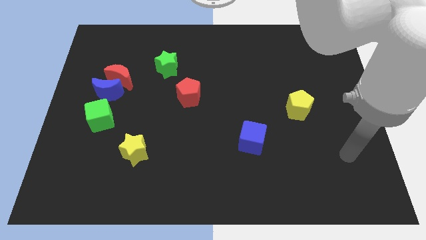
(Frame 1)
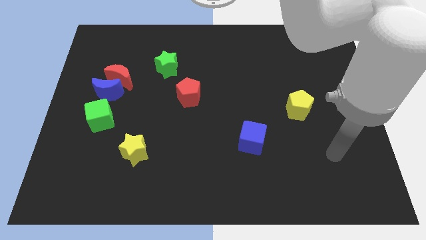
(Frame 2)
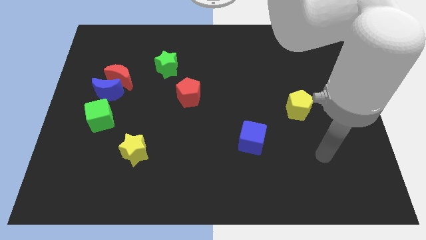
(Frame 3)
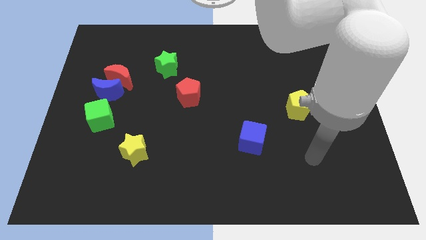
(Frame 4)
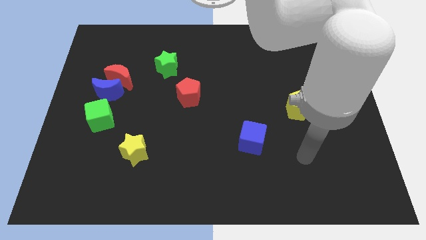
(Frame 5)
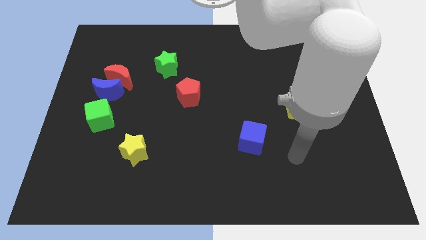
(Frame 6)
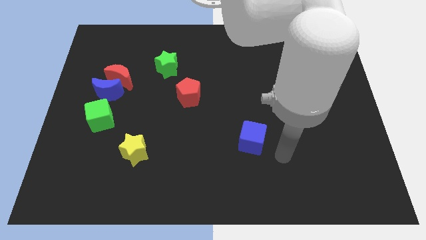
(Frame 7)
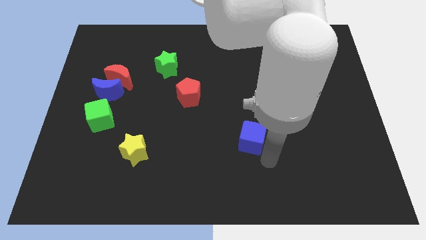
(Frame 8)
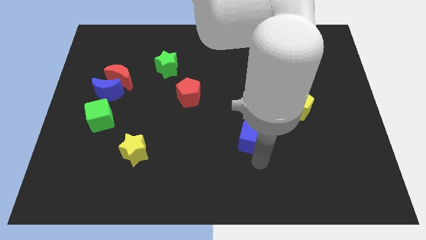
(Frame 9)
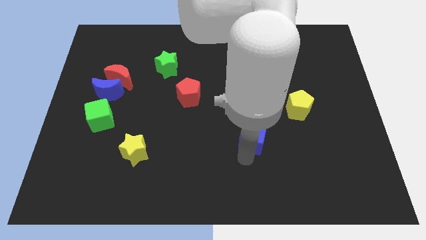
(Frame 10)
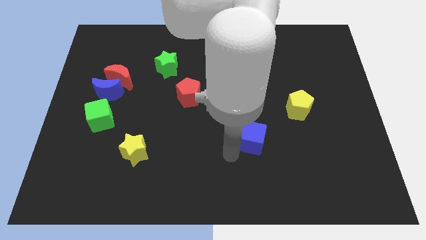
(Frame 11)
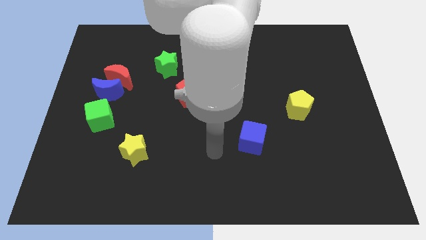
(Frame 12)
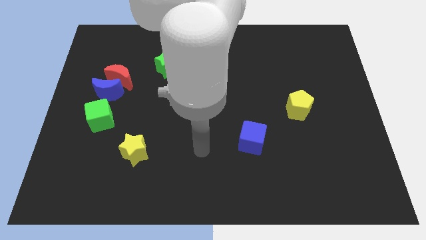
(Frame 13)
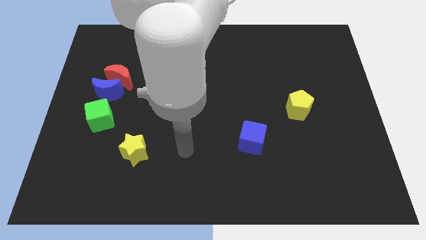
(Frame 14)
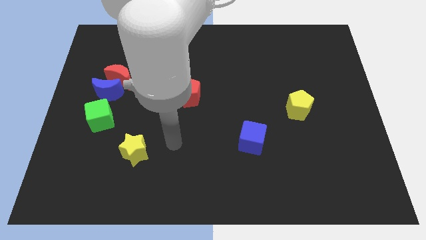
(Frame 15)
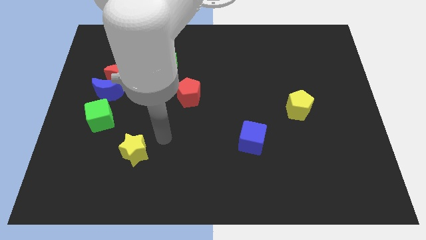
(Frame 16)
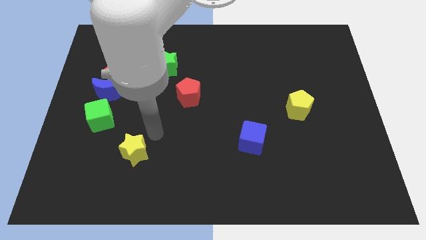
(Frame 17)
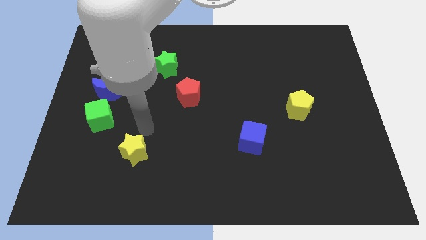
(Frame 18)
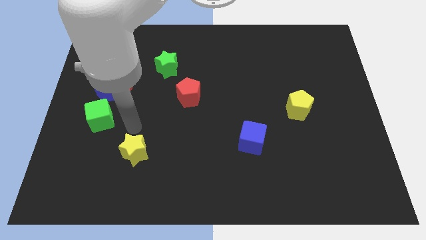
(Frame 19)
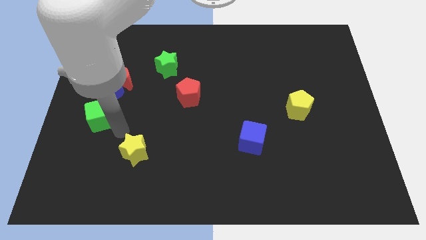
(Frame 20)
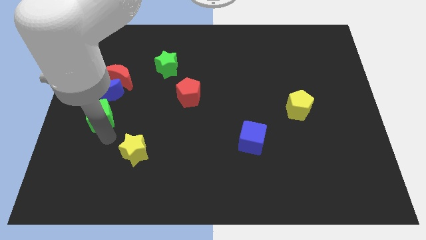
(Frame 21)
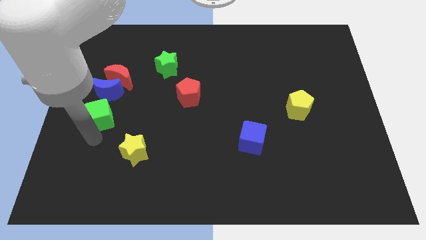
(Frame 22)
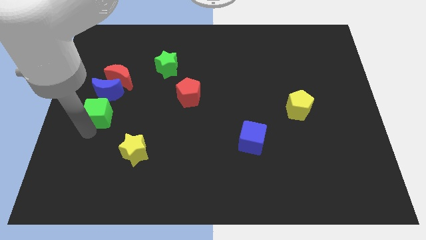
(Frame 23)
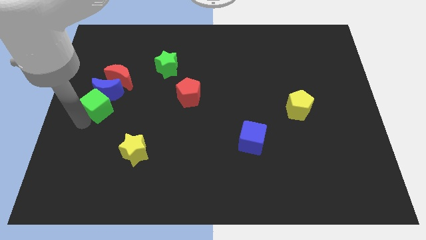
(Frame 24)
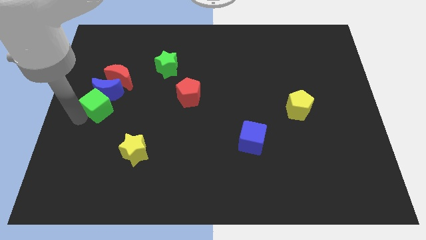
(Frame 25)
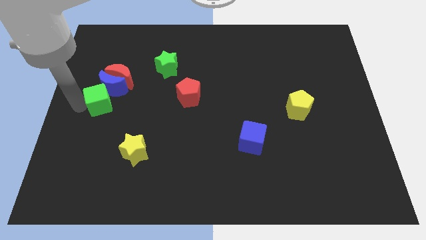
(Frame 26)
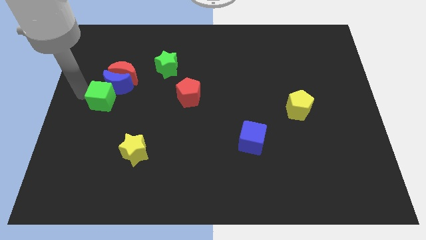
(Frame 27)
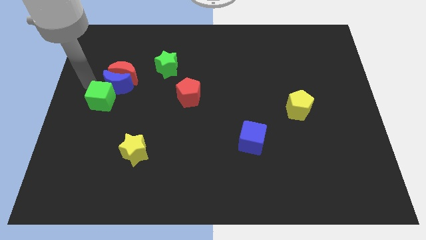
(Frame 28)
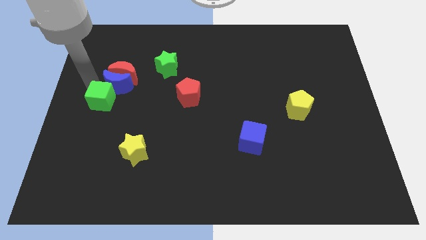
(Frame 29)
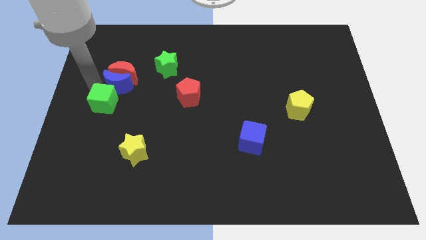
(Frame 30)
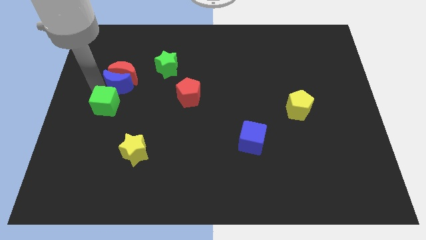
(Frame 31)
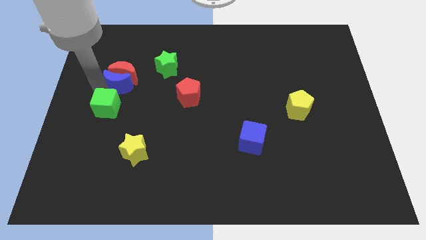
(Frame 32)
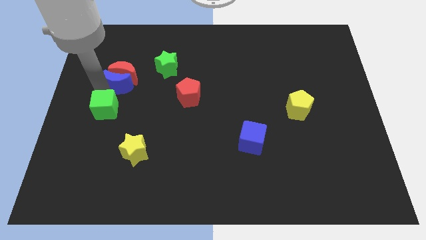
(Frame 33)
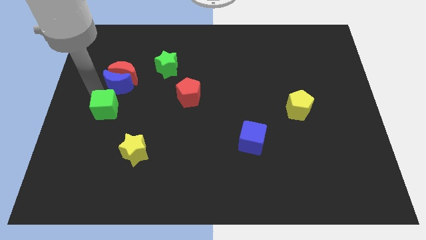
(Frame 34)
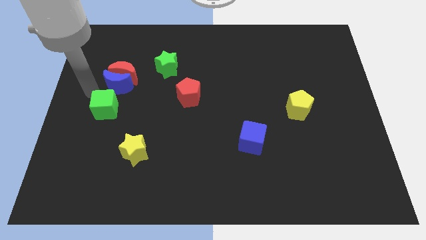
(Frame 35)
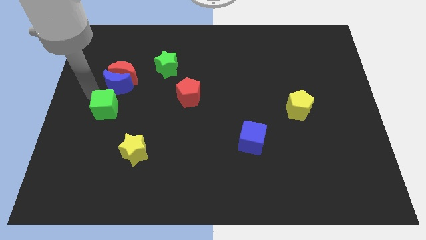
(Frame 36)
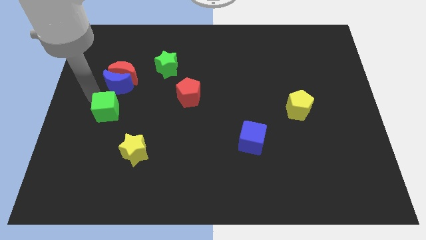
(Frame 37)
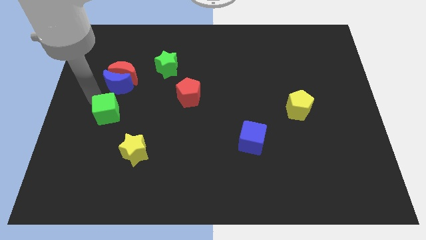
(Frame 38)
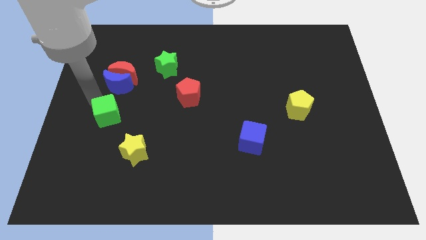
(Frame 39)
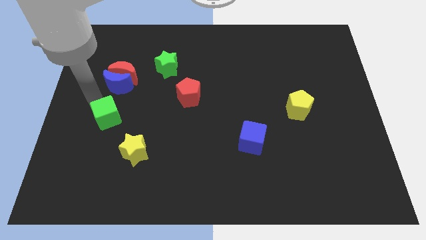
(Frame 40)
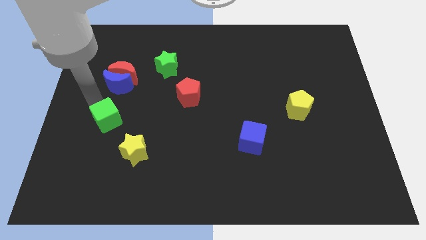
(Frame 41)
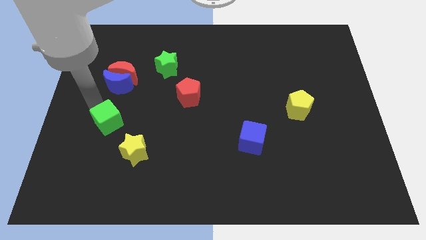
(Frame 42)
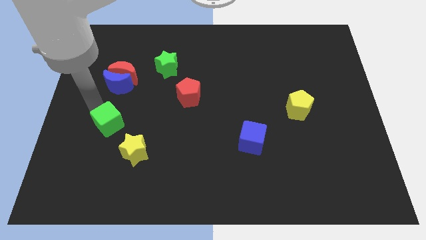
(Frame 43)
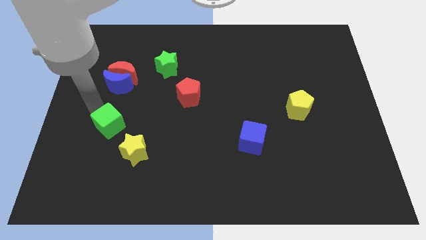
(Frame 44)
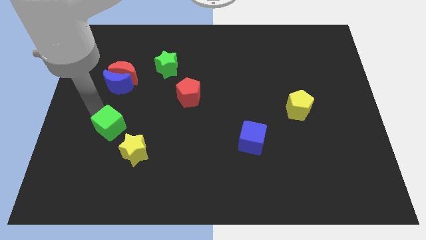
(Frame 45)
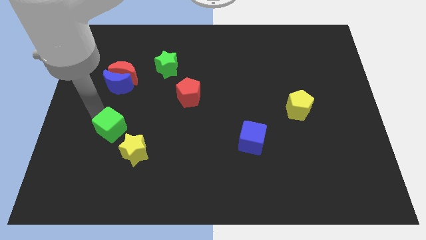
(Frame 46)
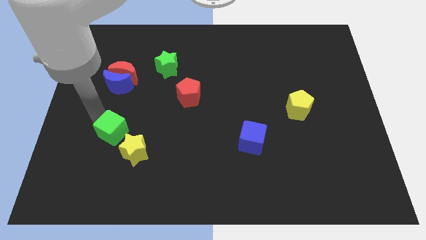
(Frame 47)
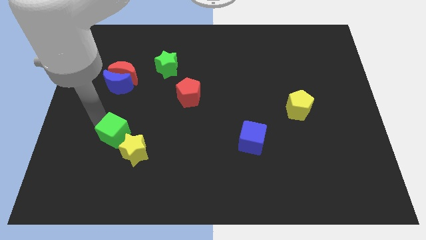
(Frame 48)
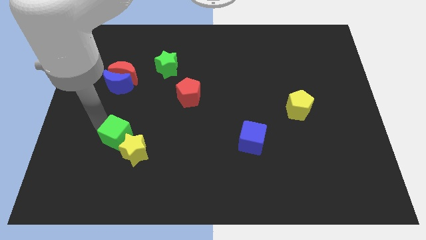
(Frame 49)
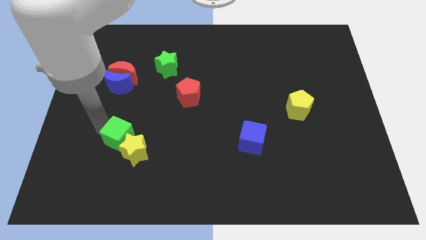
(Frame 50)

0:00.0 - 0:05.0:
slightly move the green cube down and then to the right

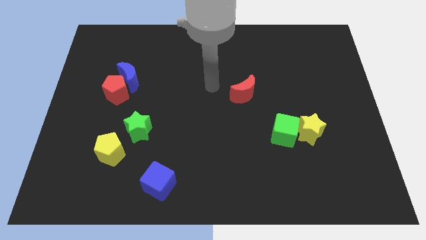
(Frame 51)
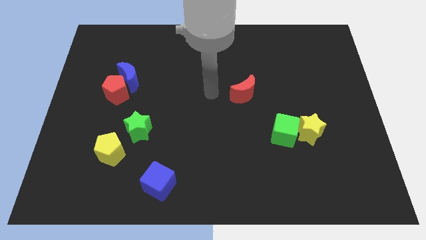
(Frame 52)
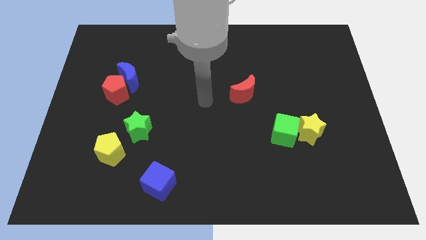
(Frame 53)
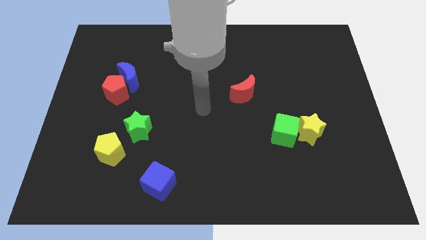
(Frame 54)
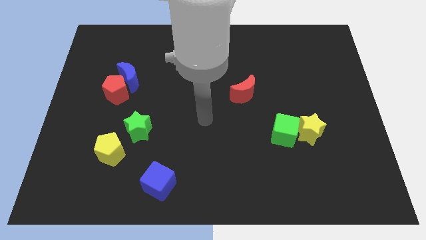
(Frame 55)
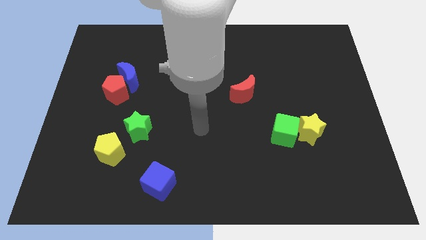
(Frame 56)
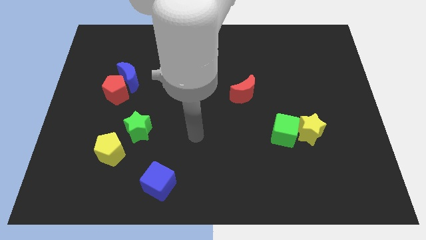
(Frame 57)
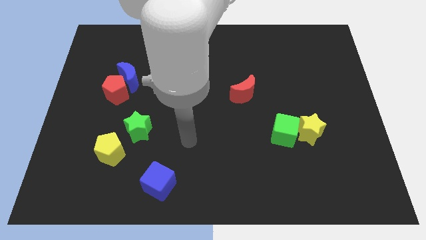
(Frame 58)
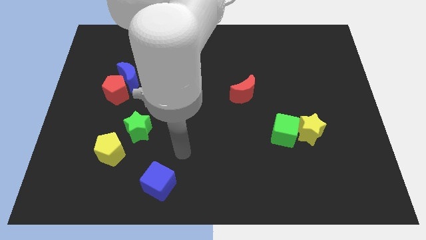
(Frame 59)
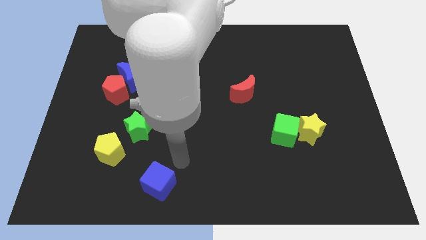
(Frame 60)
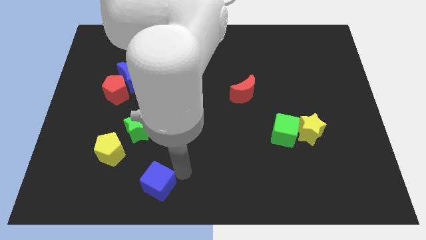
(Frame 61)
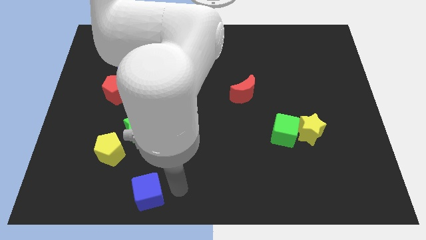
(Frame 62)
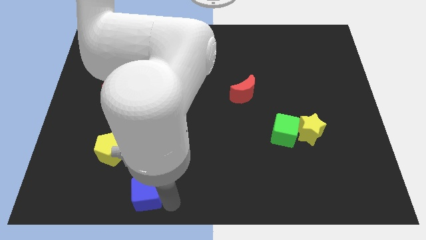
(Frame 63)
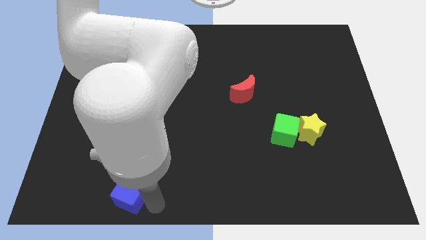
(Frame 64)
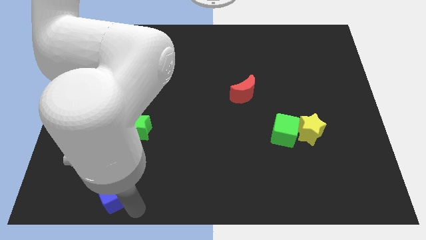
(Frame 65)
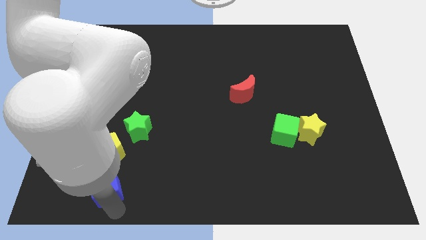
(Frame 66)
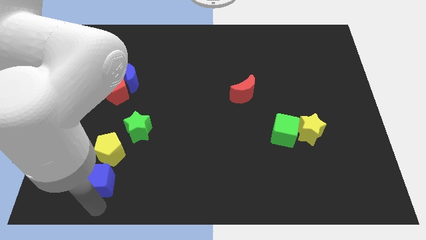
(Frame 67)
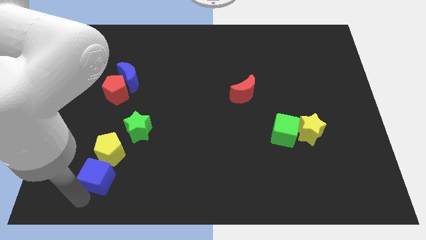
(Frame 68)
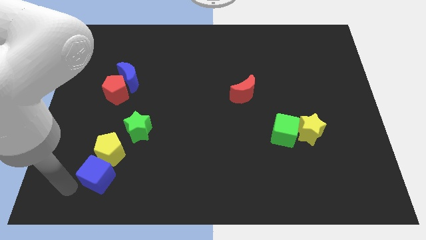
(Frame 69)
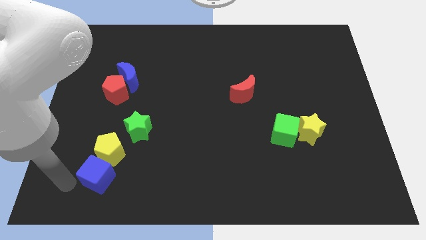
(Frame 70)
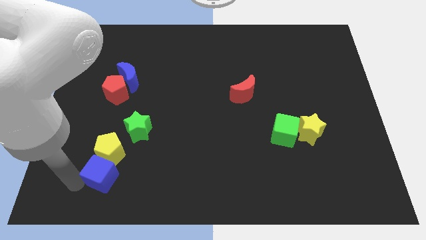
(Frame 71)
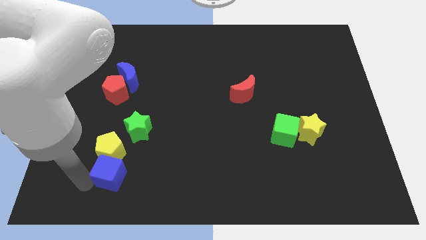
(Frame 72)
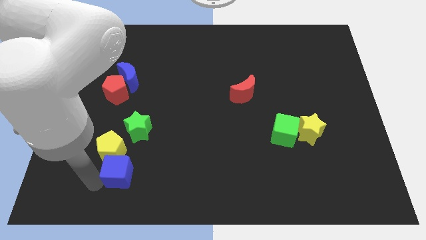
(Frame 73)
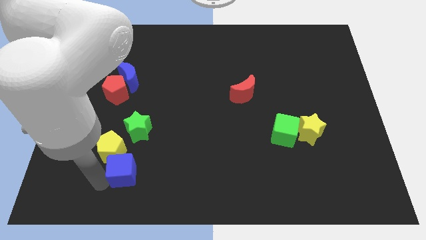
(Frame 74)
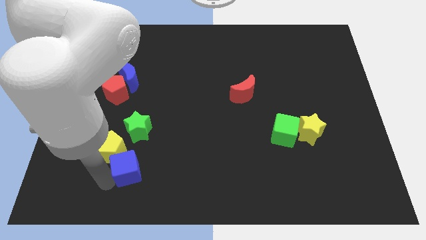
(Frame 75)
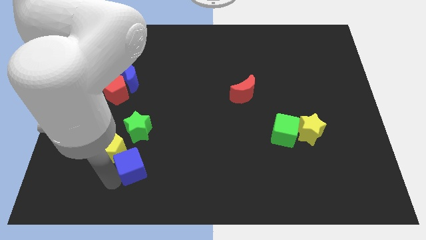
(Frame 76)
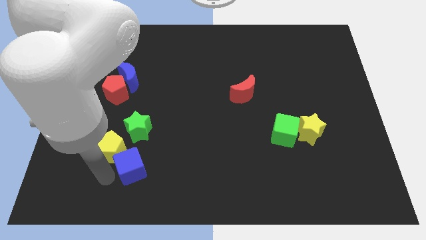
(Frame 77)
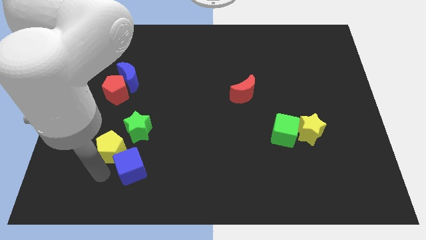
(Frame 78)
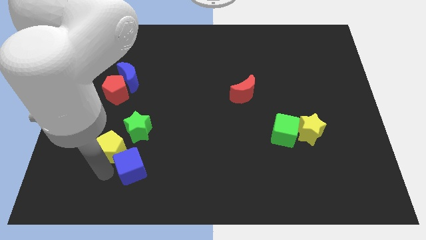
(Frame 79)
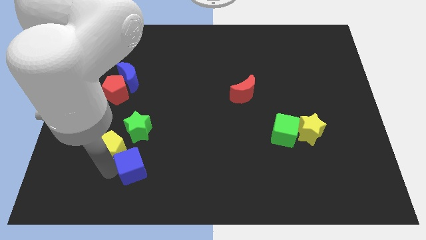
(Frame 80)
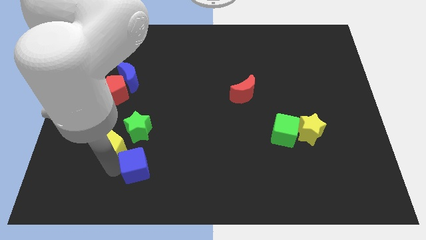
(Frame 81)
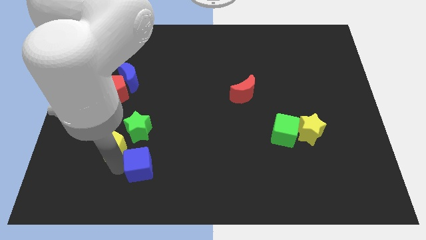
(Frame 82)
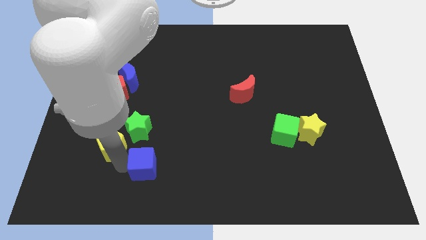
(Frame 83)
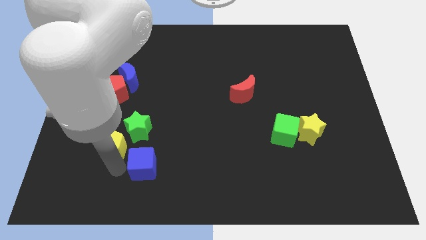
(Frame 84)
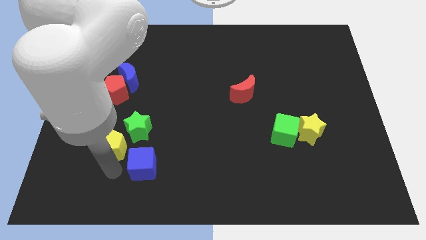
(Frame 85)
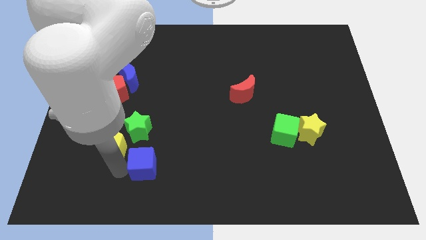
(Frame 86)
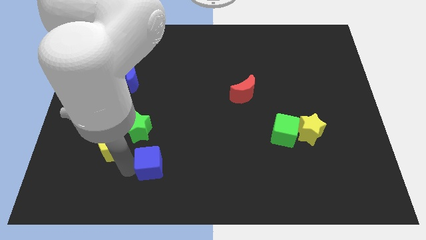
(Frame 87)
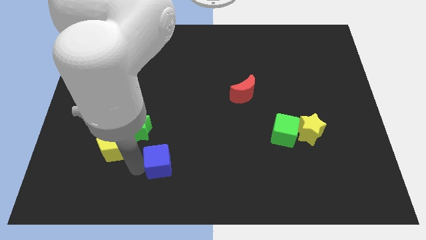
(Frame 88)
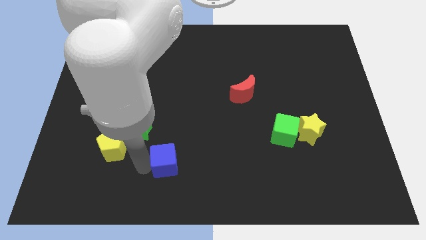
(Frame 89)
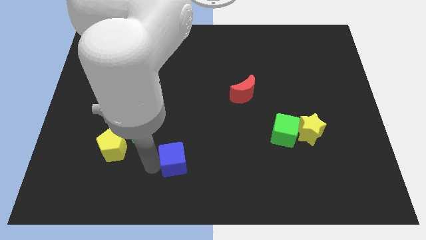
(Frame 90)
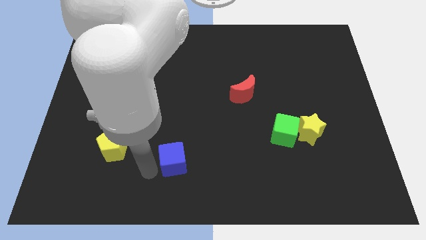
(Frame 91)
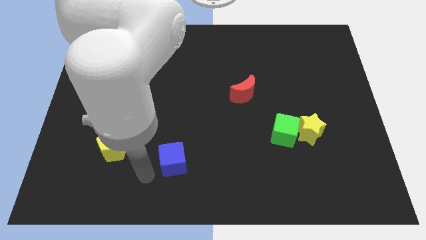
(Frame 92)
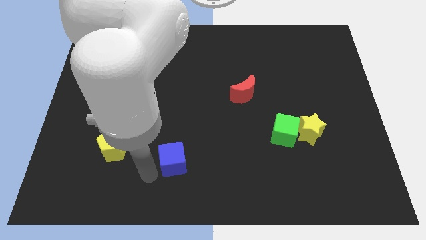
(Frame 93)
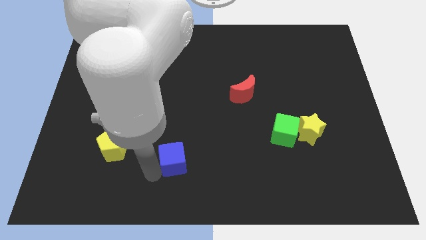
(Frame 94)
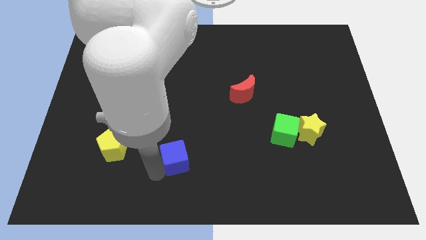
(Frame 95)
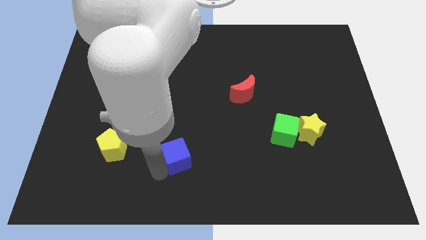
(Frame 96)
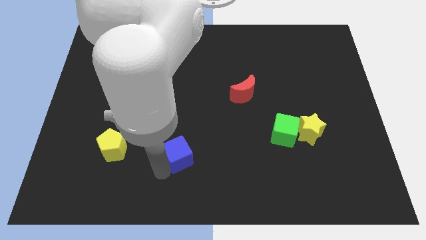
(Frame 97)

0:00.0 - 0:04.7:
move the blue cube a little up and right
